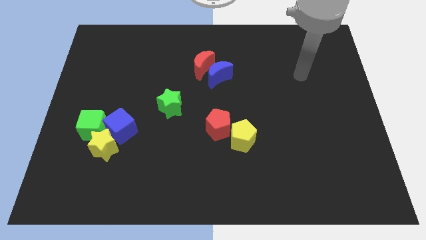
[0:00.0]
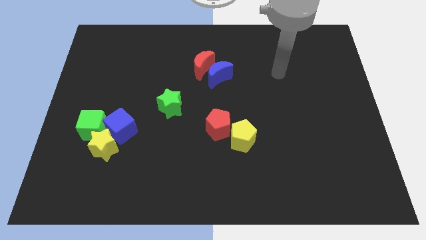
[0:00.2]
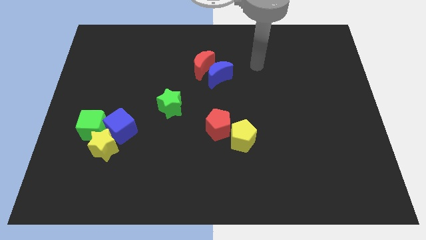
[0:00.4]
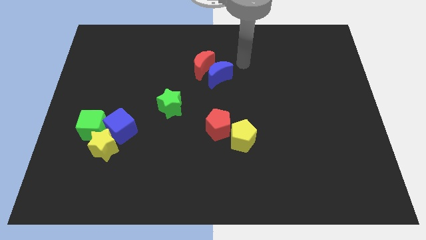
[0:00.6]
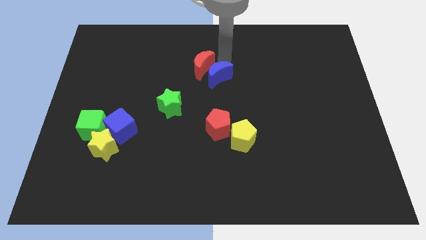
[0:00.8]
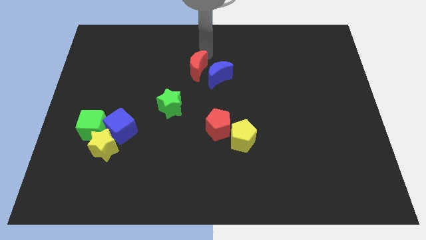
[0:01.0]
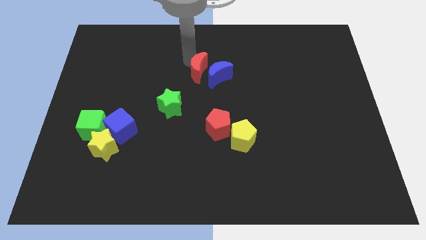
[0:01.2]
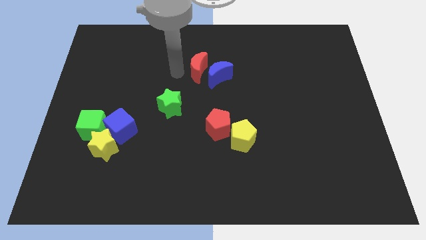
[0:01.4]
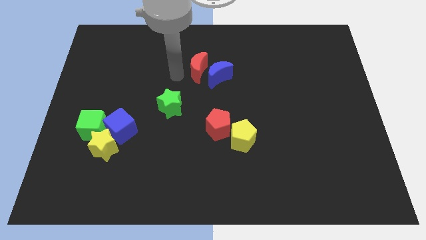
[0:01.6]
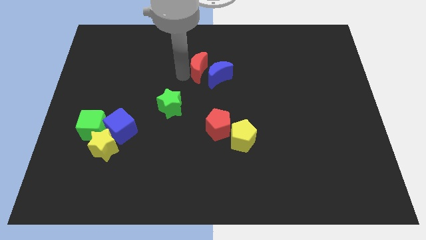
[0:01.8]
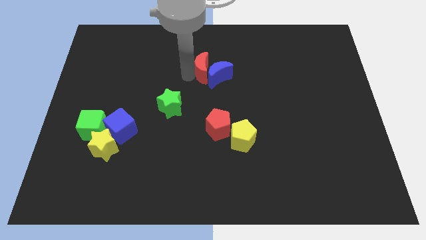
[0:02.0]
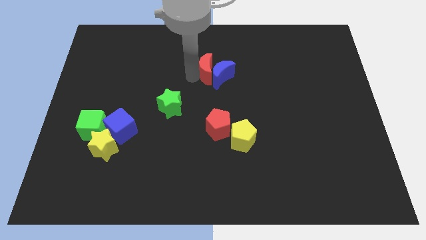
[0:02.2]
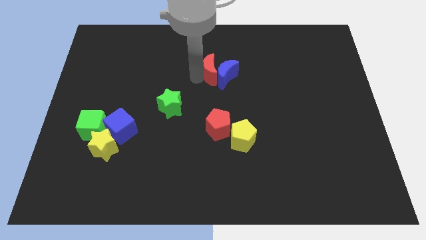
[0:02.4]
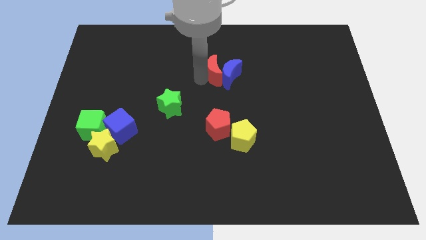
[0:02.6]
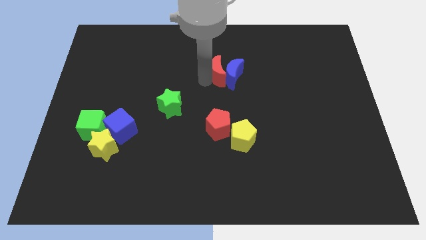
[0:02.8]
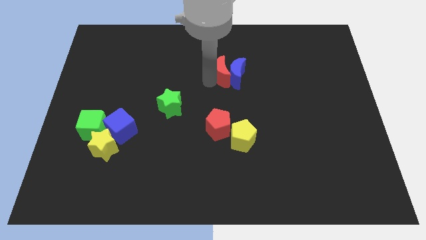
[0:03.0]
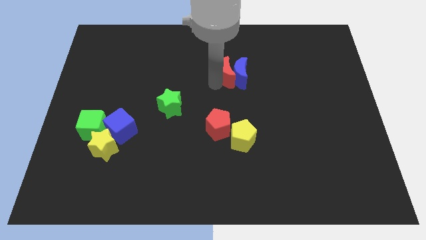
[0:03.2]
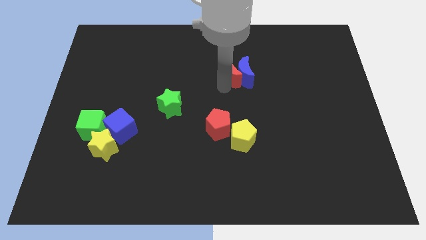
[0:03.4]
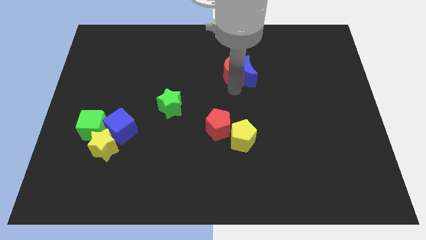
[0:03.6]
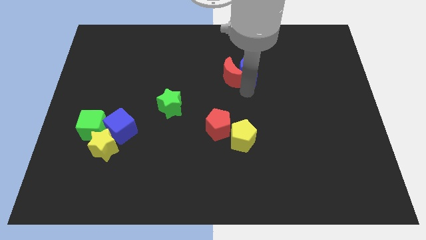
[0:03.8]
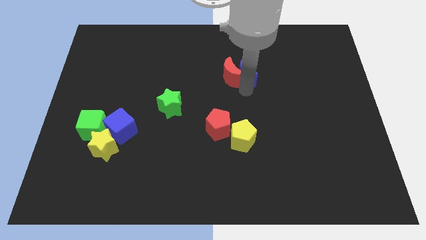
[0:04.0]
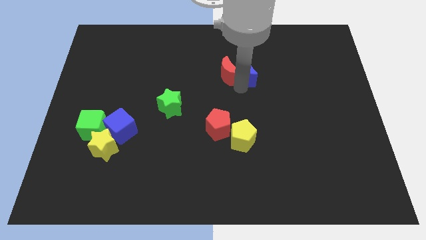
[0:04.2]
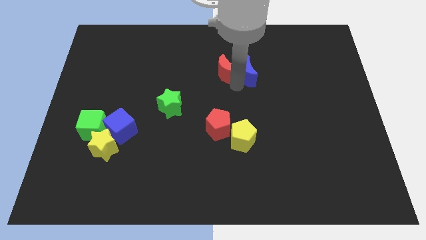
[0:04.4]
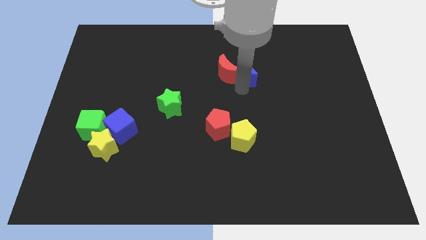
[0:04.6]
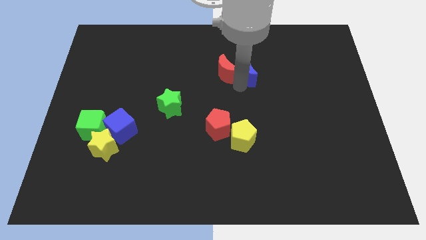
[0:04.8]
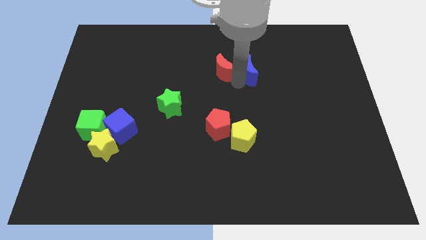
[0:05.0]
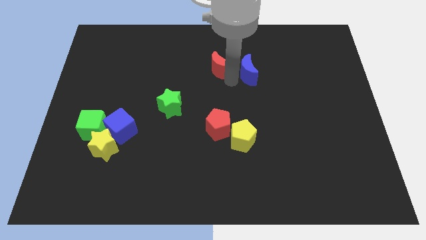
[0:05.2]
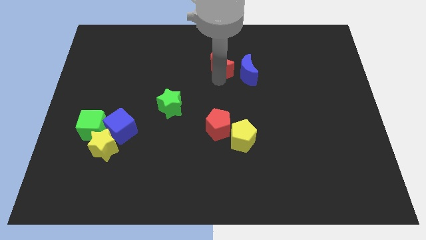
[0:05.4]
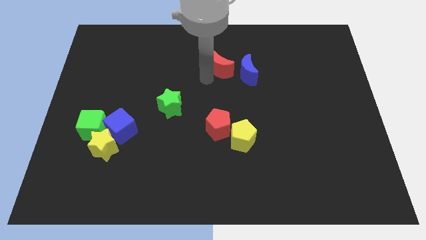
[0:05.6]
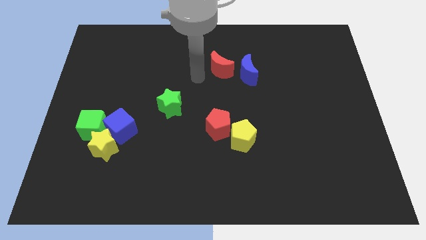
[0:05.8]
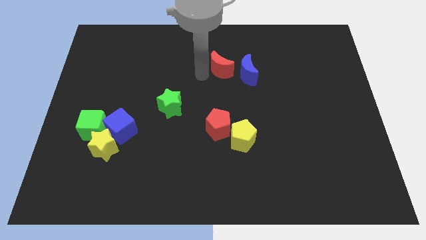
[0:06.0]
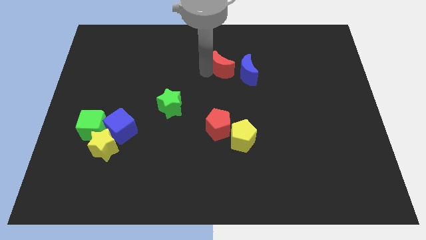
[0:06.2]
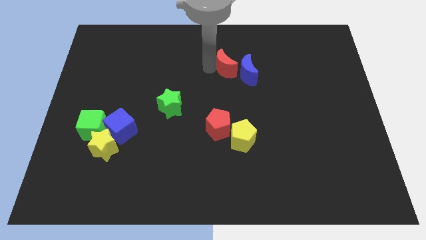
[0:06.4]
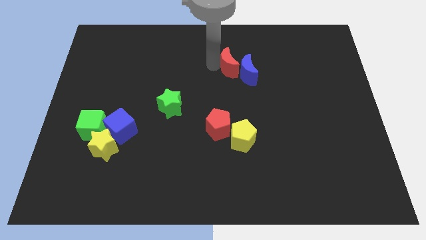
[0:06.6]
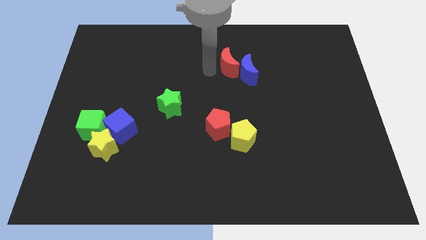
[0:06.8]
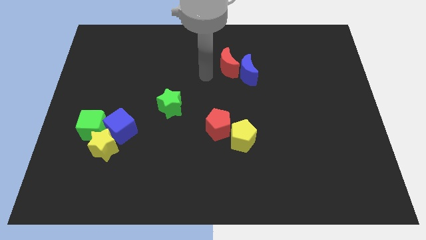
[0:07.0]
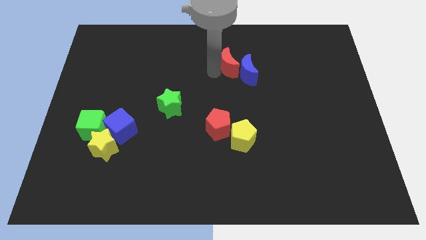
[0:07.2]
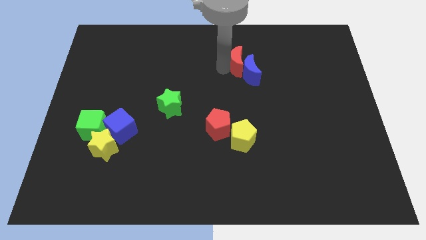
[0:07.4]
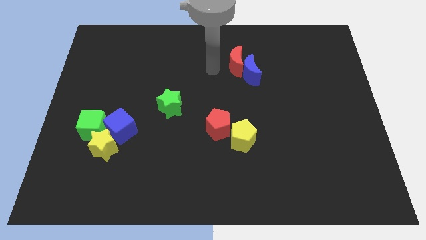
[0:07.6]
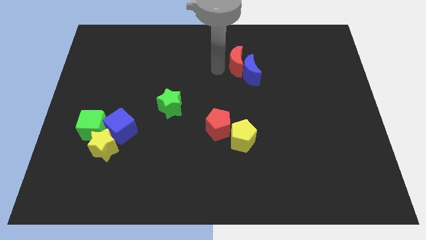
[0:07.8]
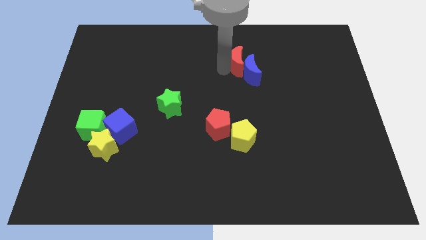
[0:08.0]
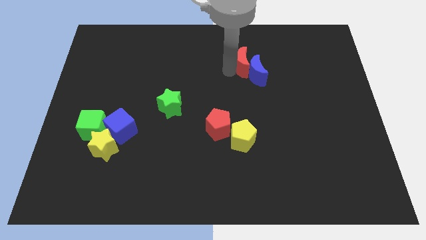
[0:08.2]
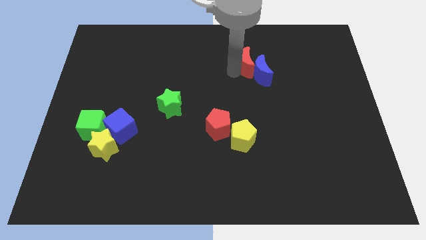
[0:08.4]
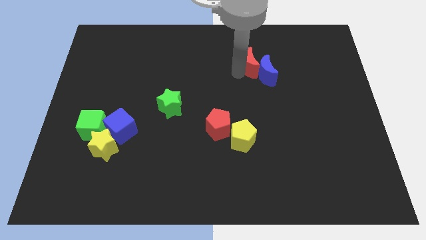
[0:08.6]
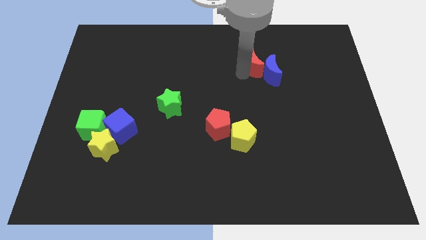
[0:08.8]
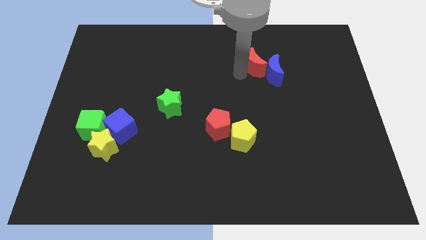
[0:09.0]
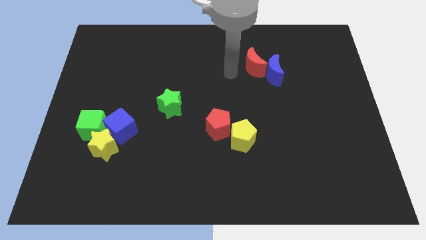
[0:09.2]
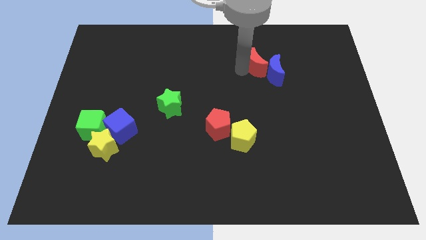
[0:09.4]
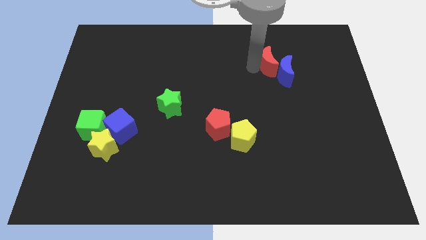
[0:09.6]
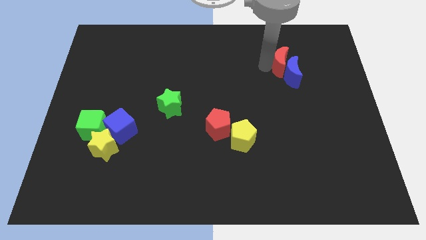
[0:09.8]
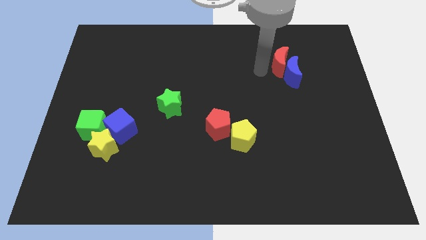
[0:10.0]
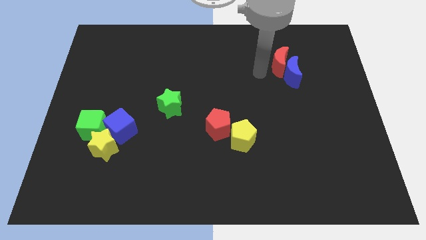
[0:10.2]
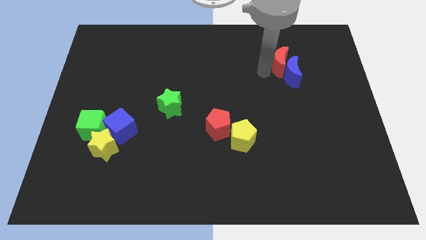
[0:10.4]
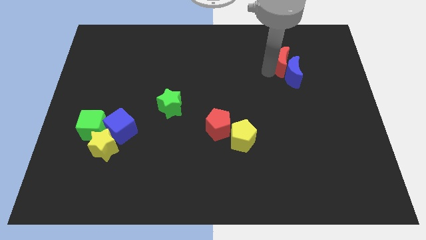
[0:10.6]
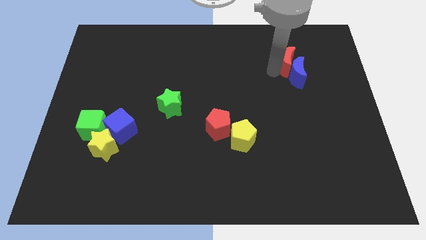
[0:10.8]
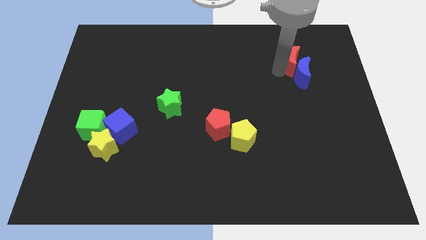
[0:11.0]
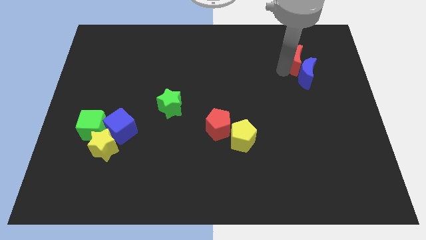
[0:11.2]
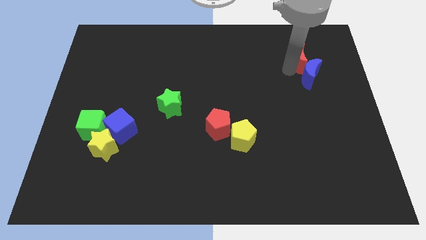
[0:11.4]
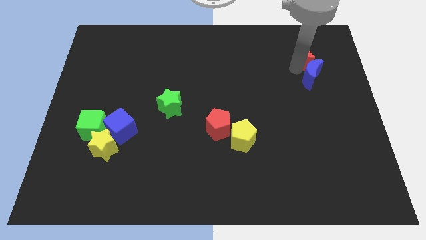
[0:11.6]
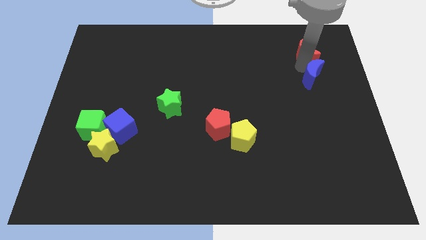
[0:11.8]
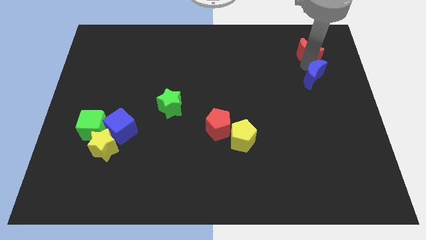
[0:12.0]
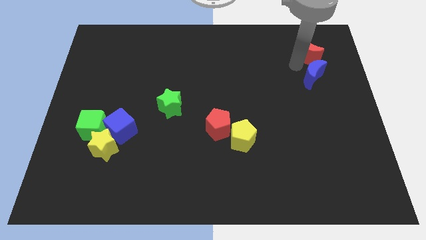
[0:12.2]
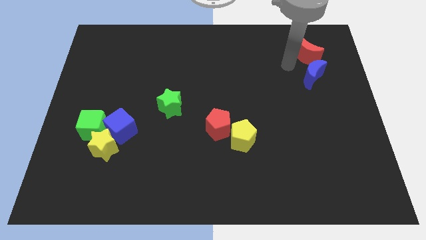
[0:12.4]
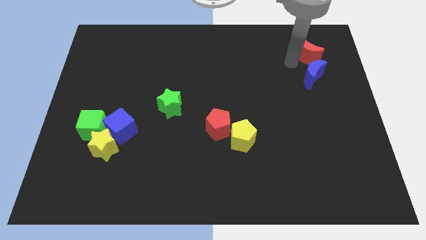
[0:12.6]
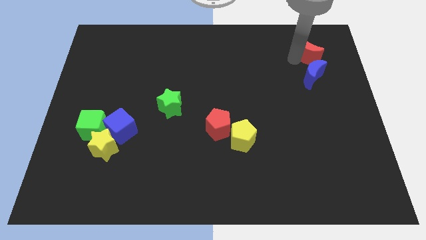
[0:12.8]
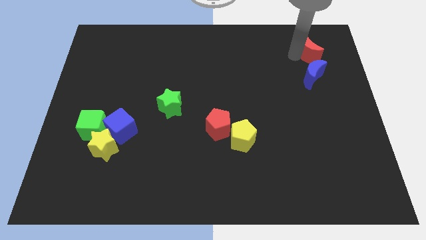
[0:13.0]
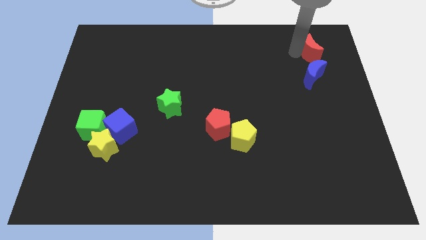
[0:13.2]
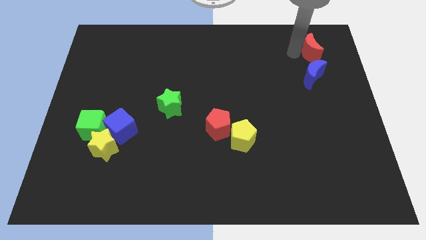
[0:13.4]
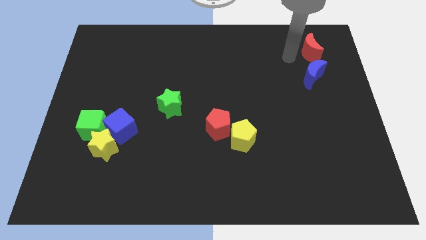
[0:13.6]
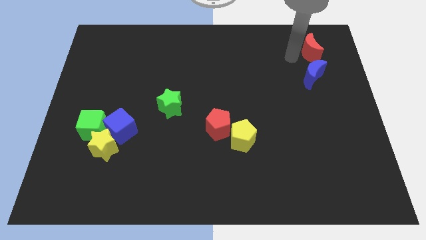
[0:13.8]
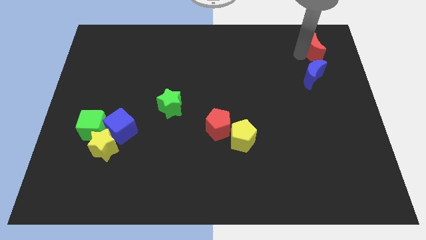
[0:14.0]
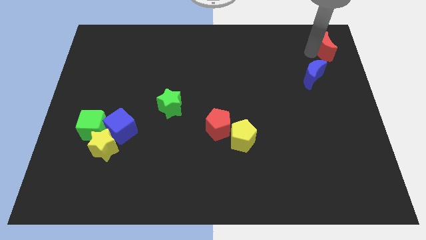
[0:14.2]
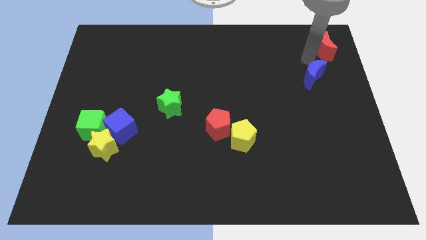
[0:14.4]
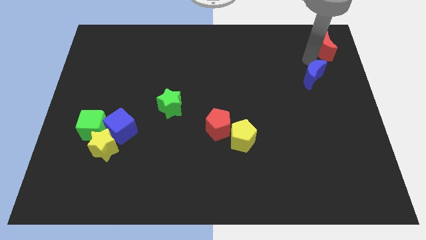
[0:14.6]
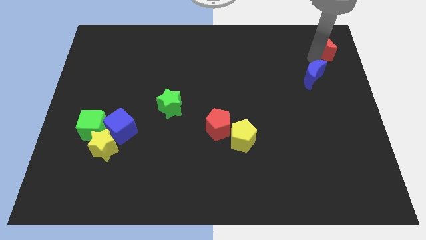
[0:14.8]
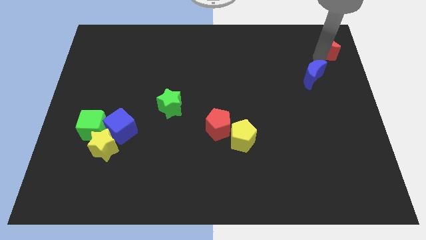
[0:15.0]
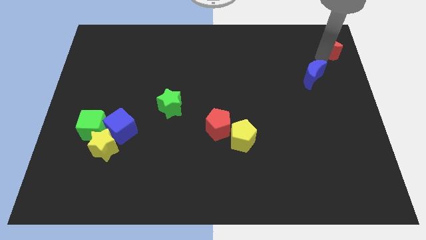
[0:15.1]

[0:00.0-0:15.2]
put the red moon to the top right of the board
